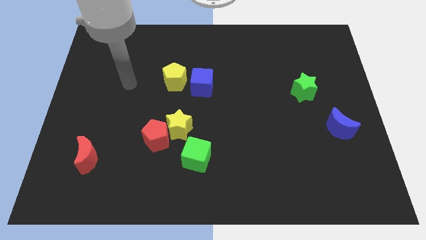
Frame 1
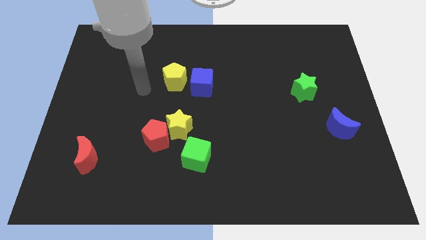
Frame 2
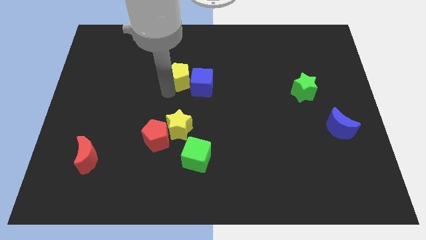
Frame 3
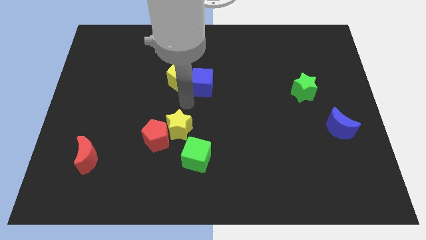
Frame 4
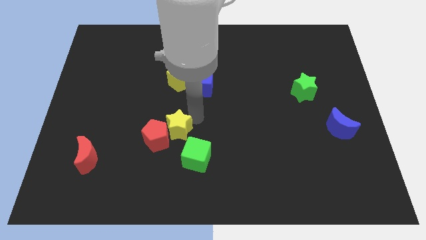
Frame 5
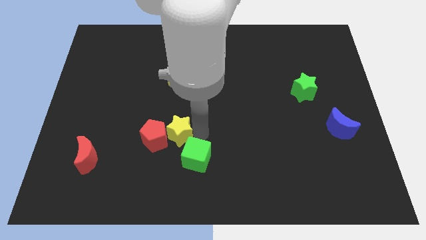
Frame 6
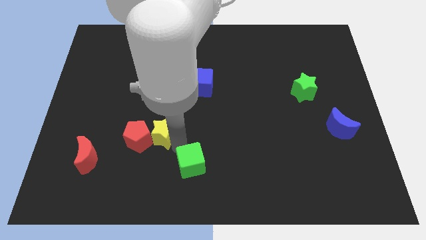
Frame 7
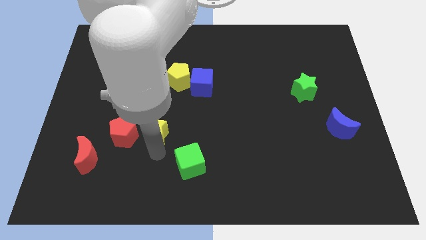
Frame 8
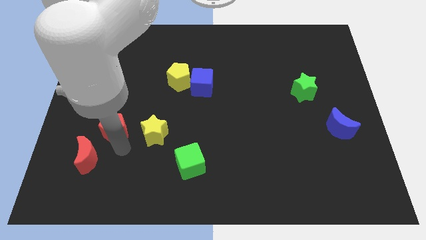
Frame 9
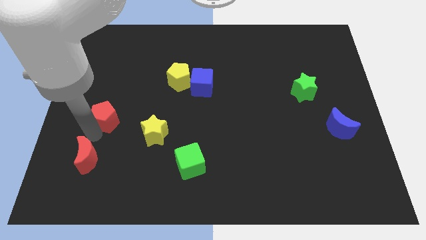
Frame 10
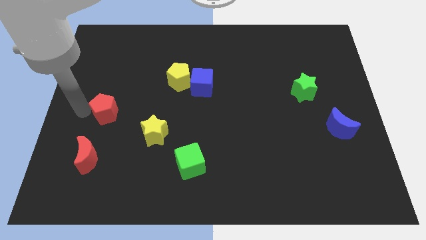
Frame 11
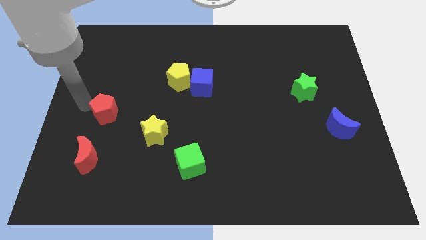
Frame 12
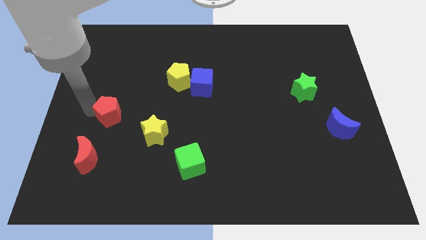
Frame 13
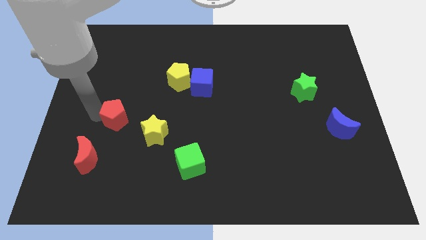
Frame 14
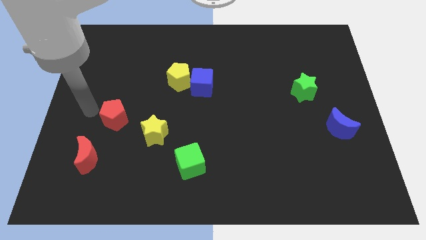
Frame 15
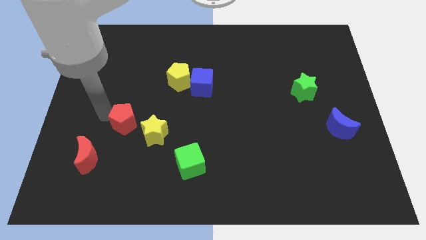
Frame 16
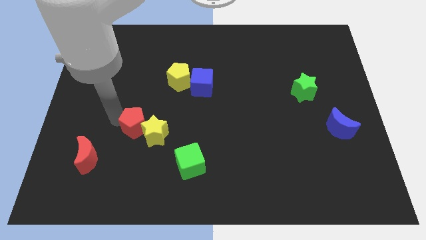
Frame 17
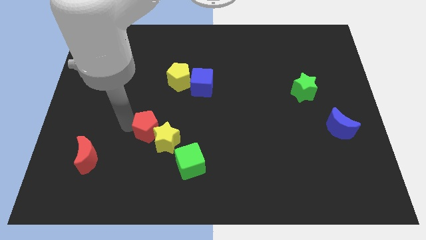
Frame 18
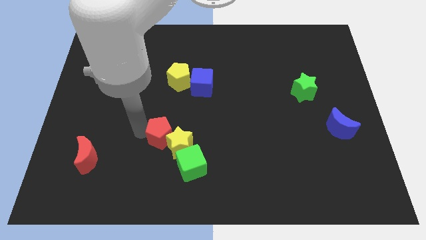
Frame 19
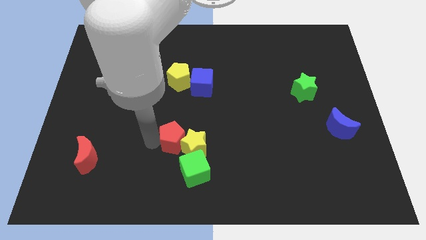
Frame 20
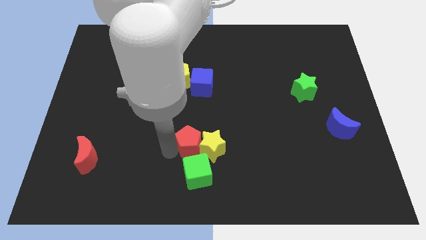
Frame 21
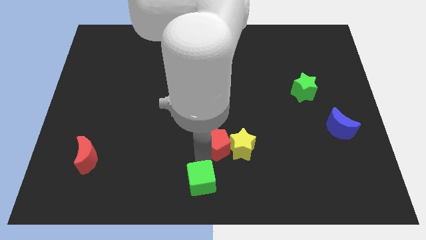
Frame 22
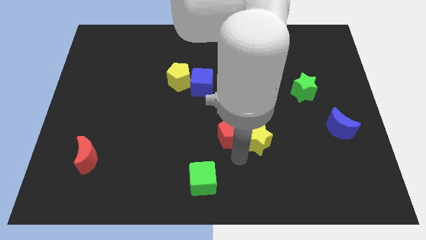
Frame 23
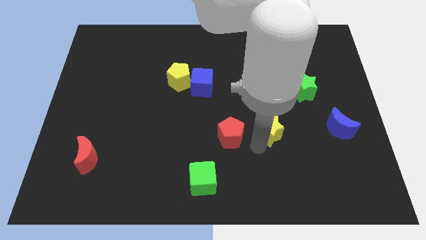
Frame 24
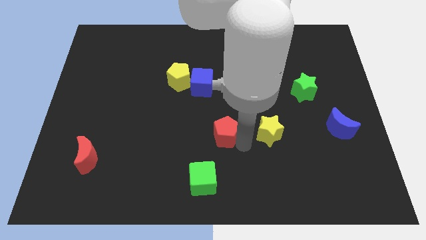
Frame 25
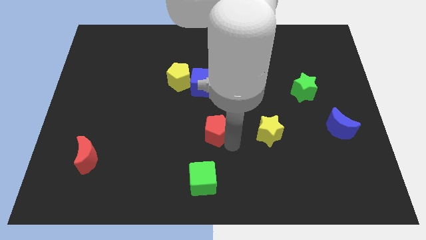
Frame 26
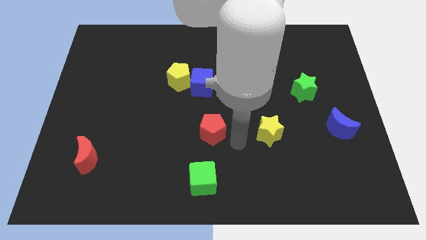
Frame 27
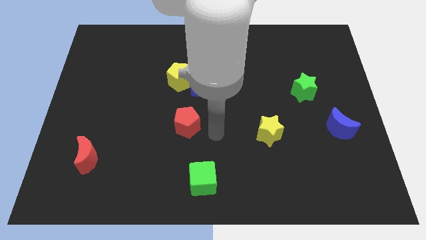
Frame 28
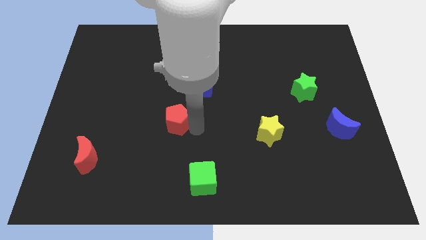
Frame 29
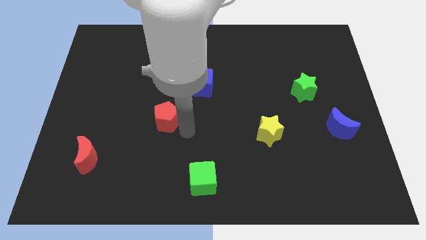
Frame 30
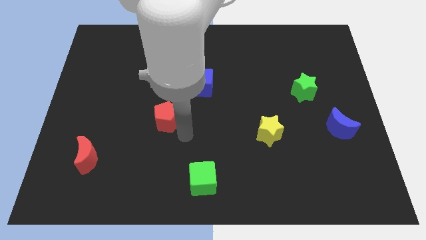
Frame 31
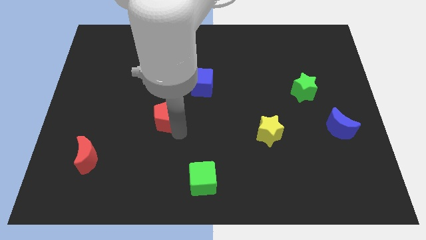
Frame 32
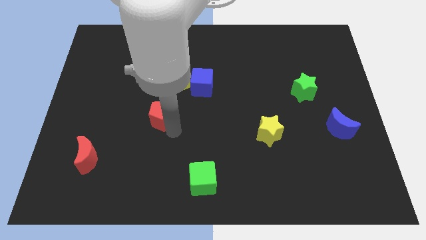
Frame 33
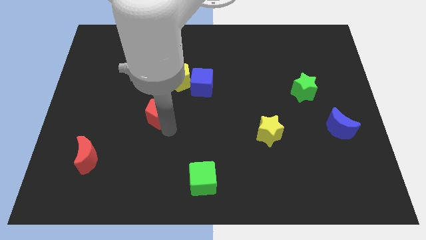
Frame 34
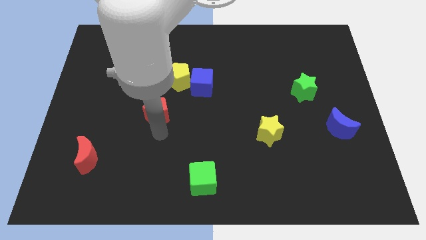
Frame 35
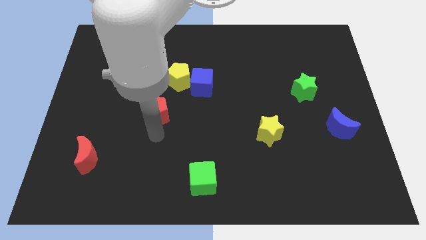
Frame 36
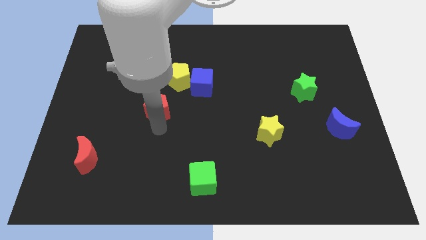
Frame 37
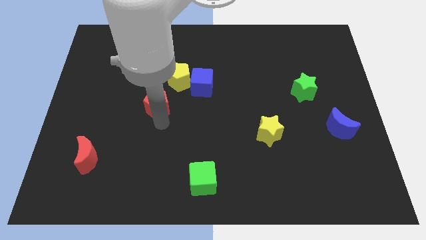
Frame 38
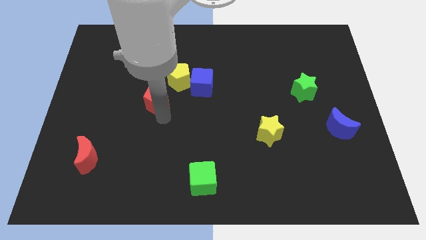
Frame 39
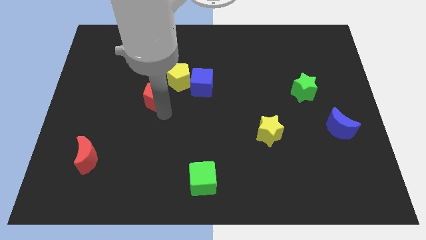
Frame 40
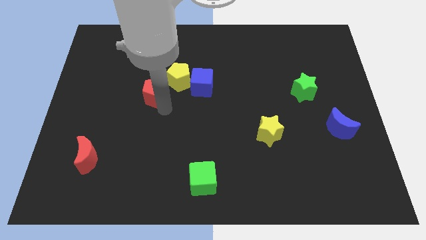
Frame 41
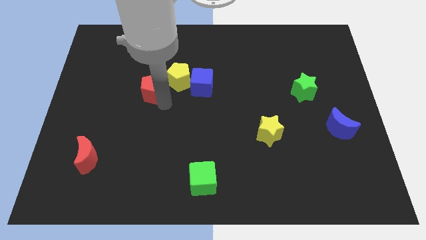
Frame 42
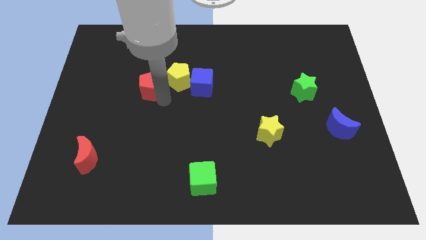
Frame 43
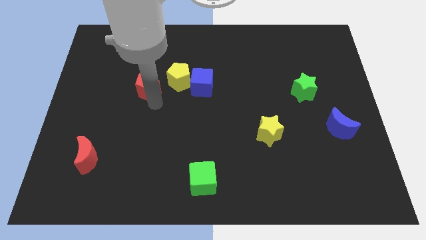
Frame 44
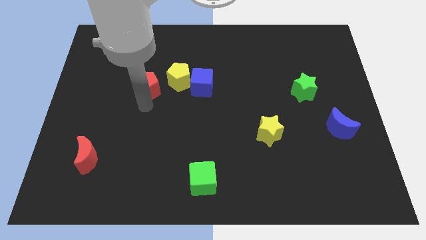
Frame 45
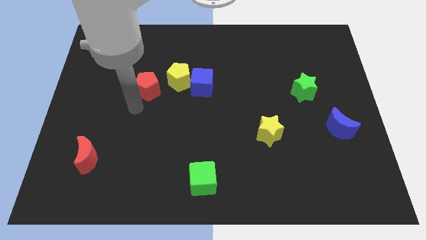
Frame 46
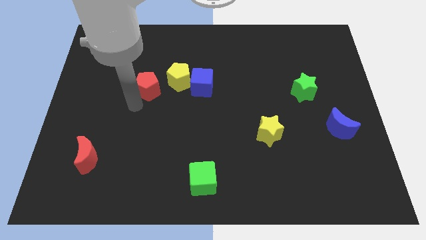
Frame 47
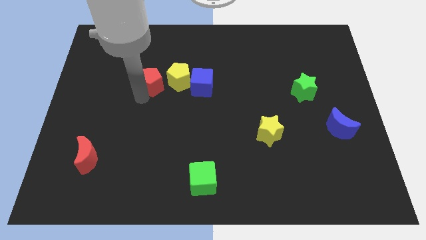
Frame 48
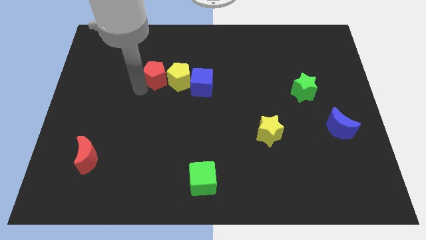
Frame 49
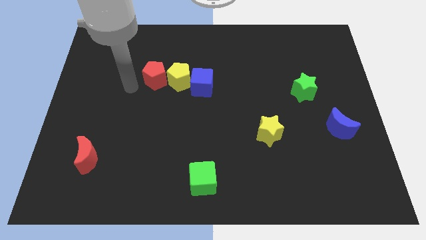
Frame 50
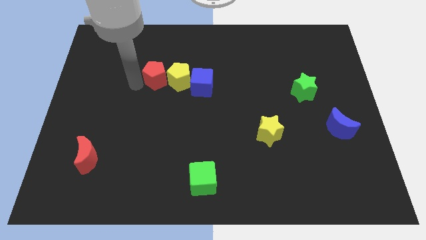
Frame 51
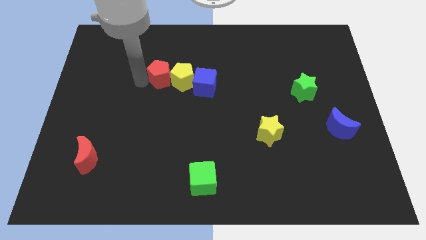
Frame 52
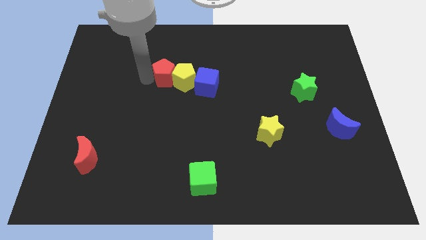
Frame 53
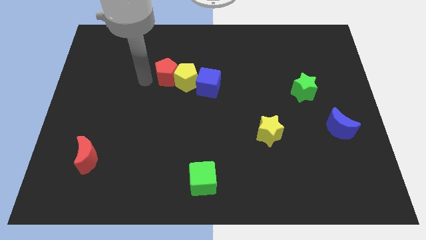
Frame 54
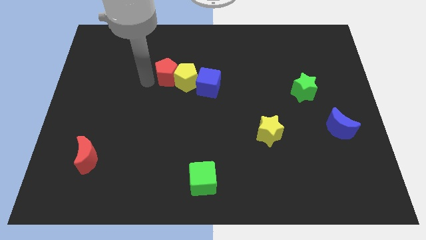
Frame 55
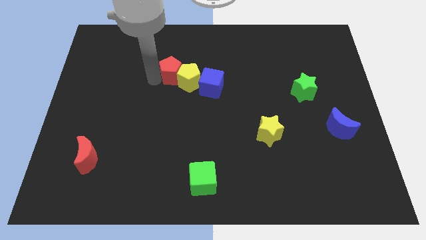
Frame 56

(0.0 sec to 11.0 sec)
put the red pentagon diagonally up and to the left of the blue cube

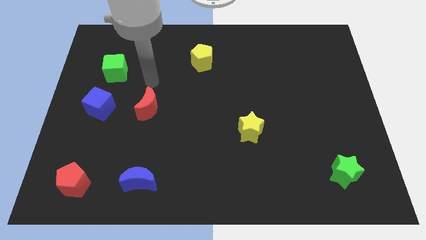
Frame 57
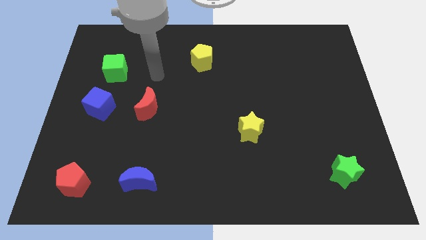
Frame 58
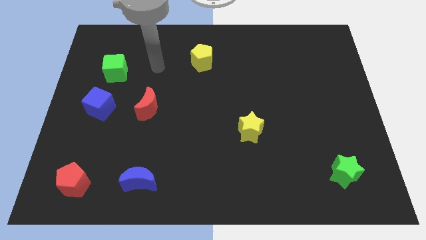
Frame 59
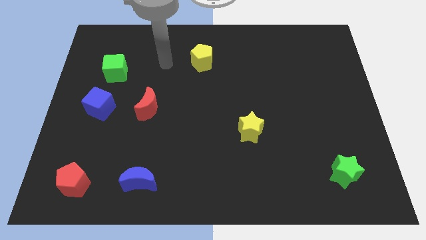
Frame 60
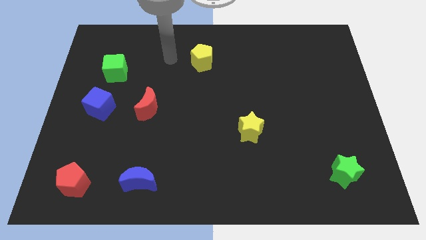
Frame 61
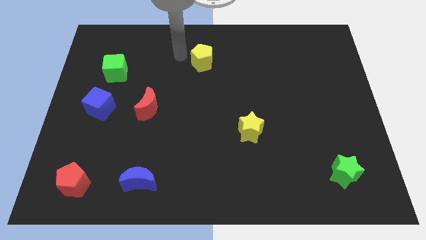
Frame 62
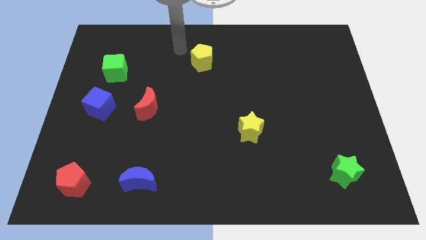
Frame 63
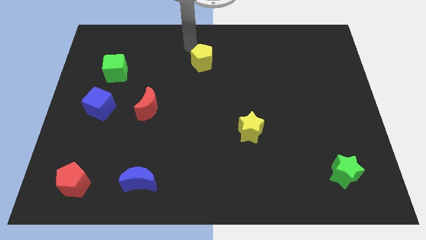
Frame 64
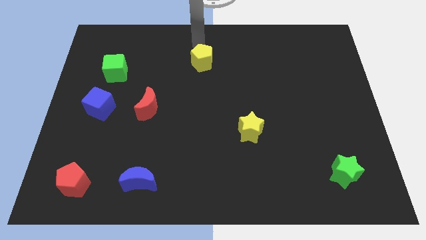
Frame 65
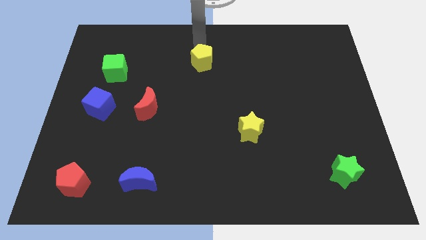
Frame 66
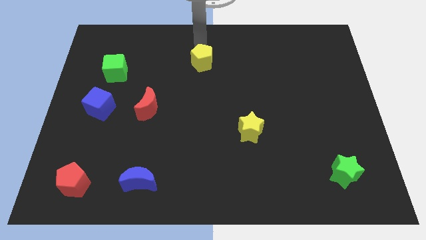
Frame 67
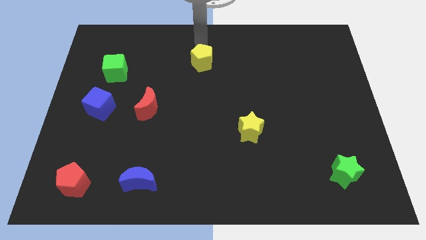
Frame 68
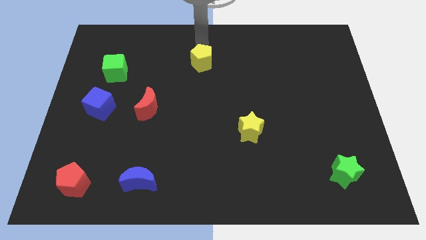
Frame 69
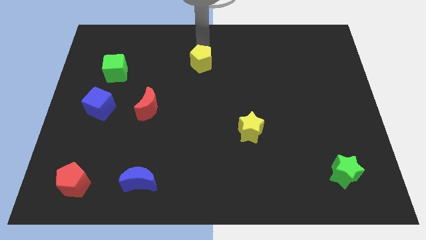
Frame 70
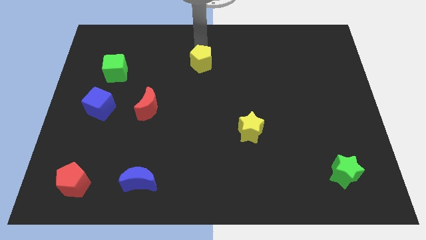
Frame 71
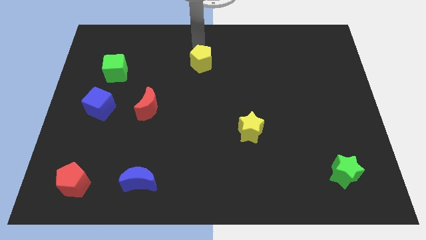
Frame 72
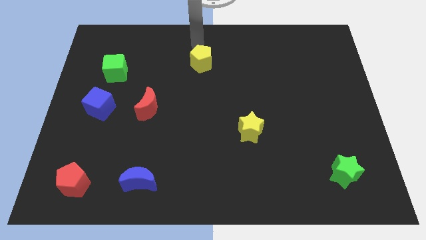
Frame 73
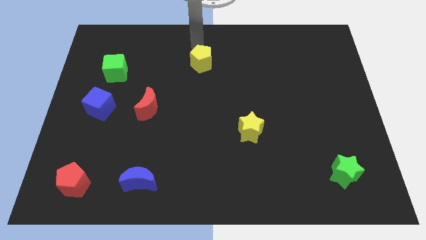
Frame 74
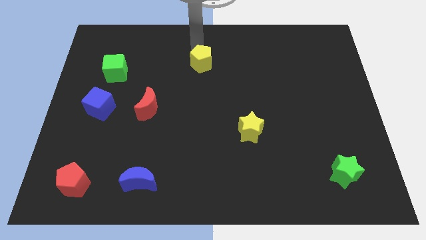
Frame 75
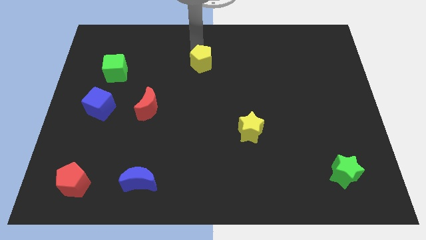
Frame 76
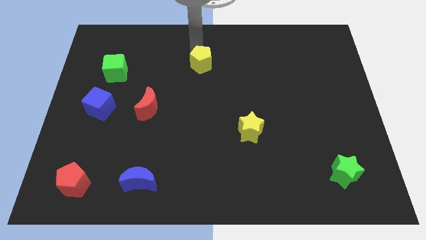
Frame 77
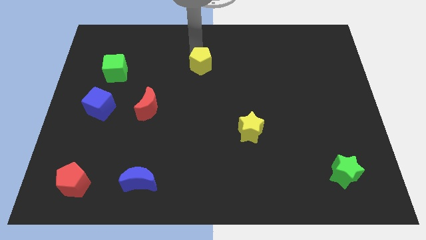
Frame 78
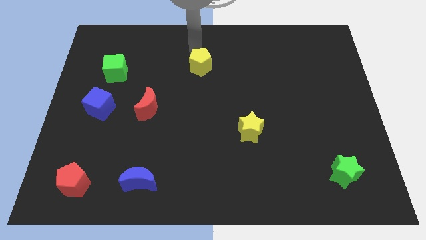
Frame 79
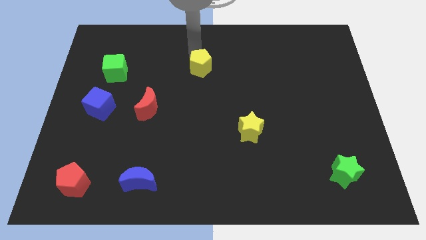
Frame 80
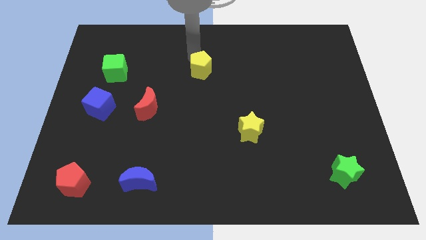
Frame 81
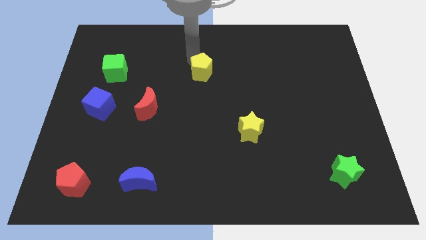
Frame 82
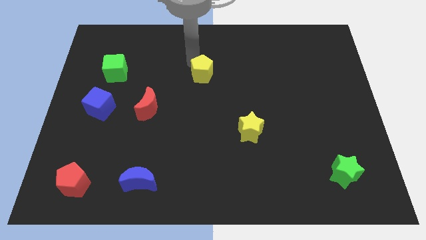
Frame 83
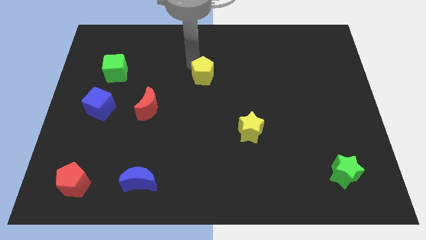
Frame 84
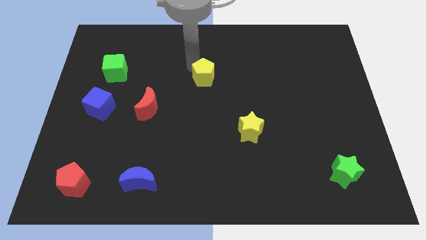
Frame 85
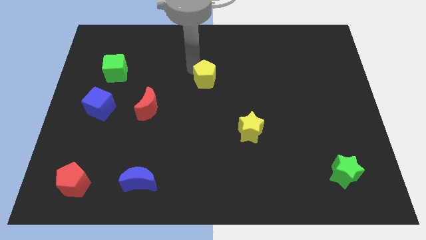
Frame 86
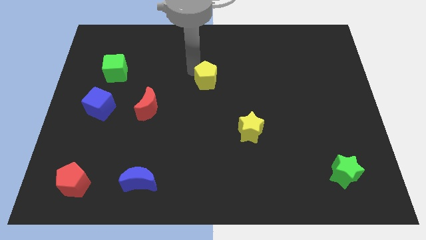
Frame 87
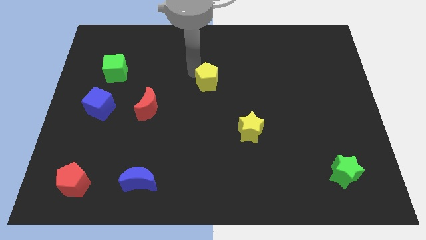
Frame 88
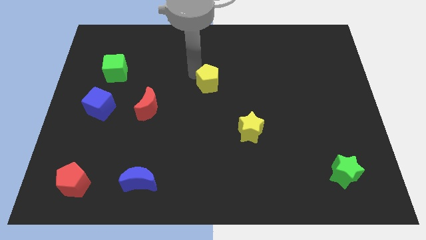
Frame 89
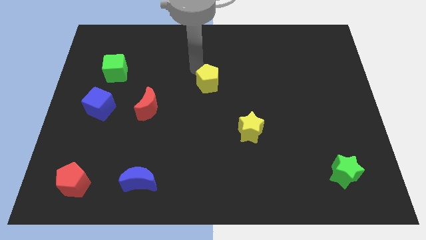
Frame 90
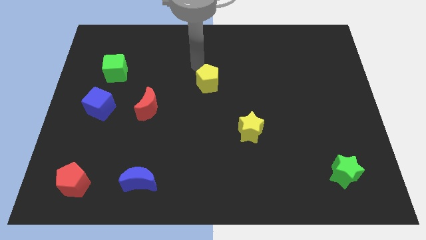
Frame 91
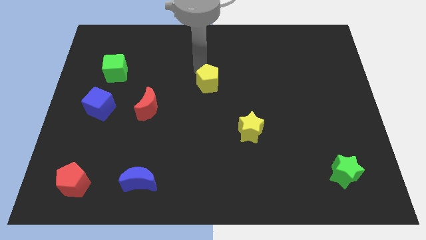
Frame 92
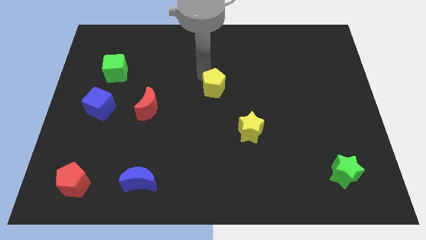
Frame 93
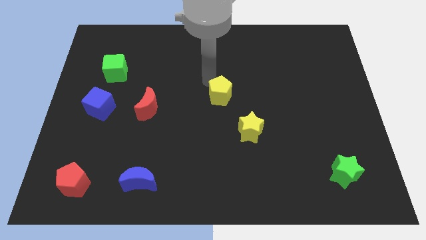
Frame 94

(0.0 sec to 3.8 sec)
slide the yellow pentagon diagonally up and to the left of the yellow star
